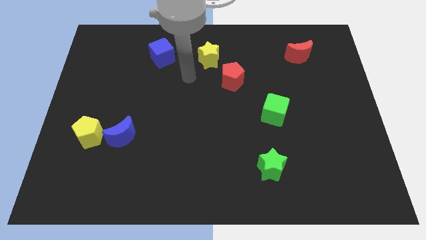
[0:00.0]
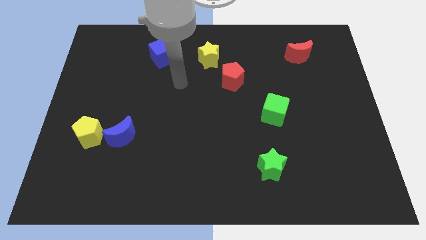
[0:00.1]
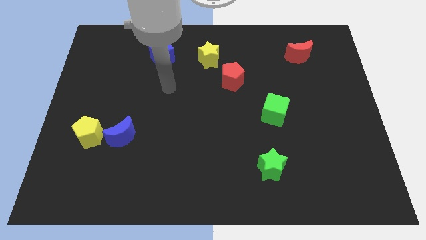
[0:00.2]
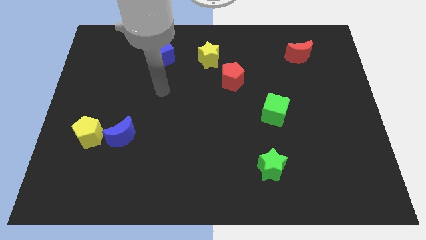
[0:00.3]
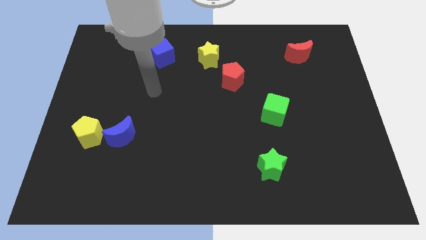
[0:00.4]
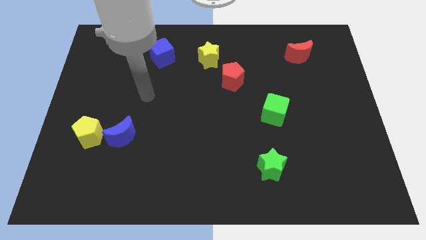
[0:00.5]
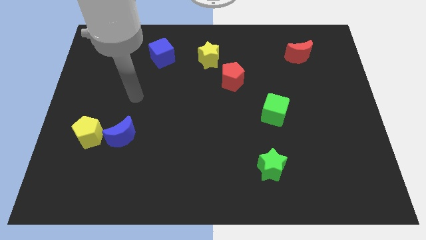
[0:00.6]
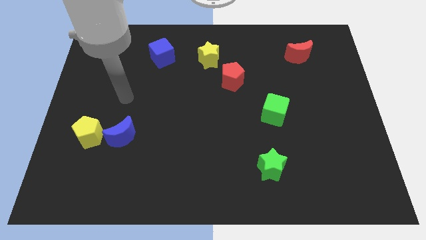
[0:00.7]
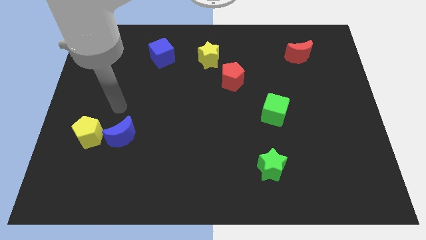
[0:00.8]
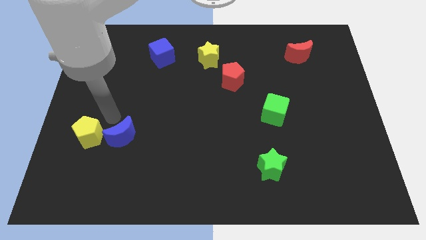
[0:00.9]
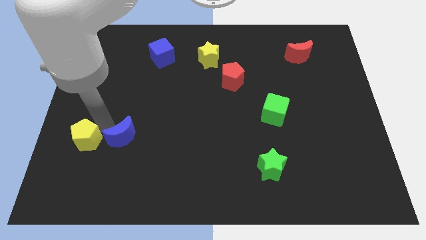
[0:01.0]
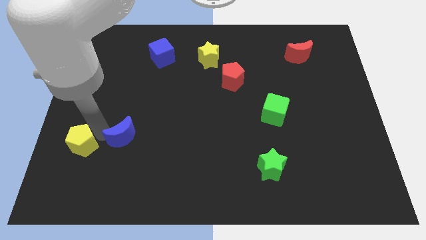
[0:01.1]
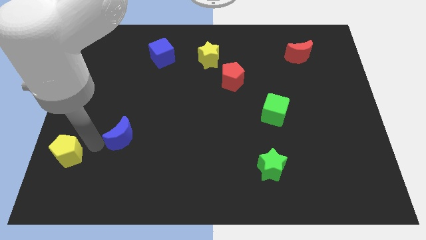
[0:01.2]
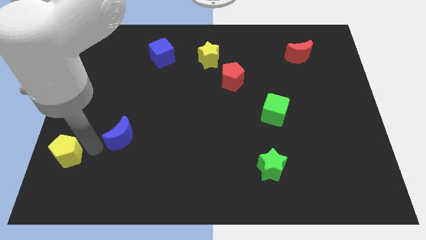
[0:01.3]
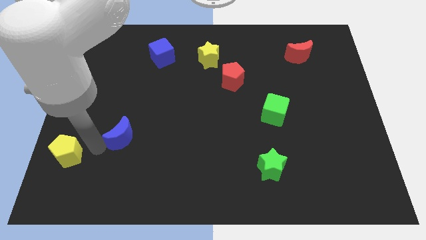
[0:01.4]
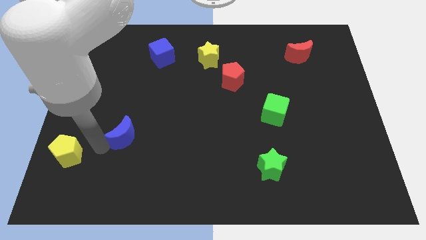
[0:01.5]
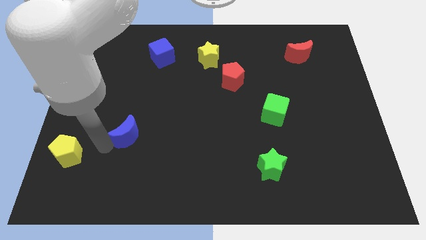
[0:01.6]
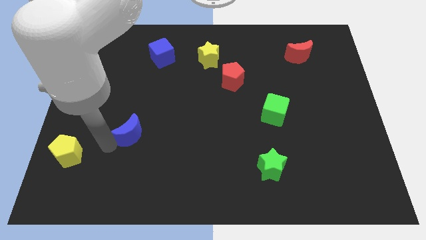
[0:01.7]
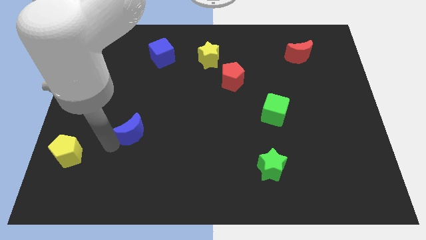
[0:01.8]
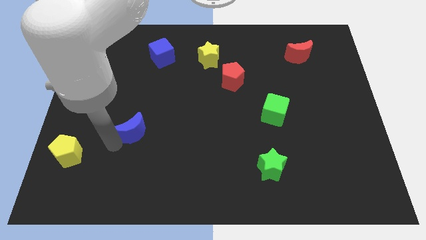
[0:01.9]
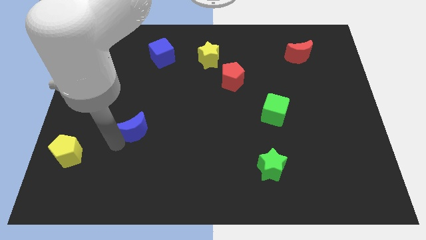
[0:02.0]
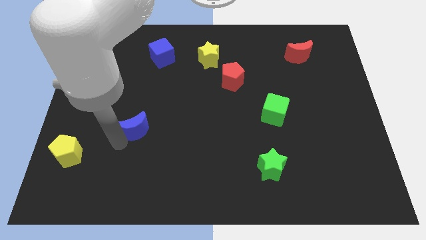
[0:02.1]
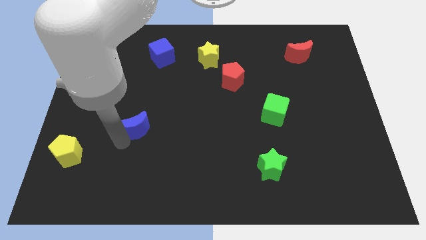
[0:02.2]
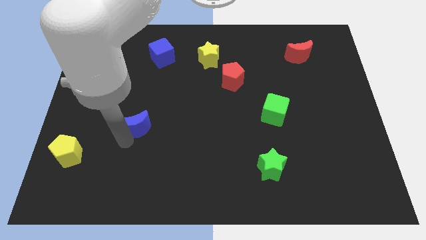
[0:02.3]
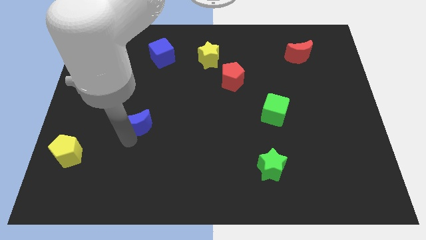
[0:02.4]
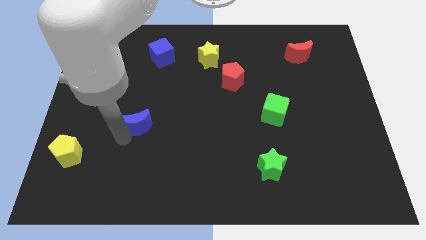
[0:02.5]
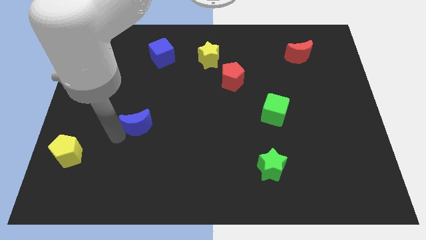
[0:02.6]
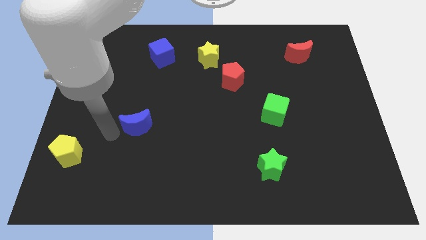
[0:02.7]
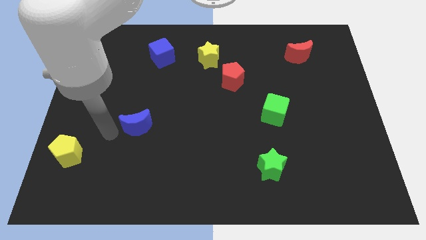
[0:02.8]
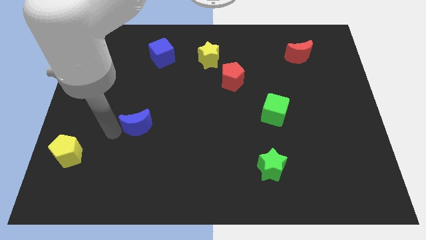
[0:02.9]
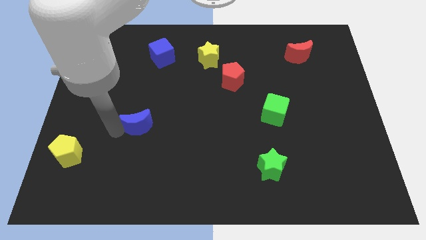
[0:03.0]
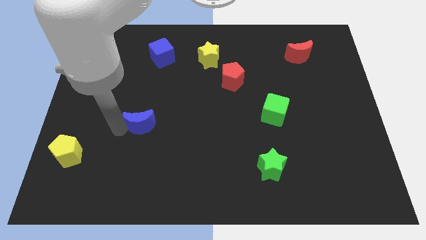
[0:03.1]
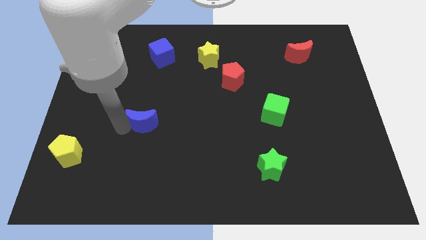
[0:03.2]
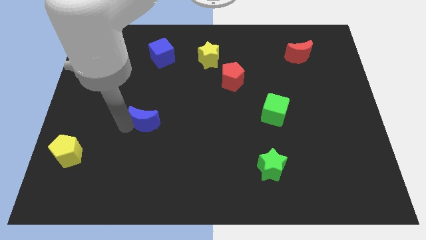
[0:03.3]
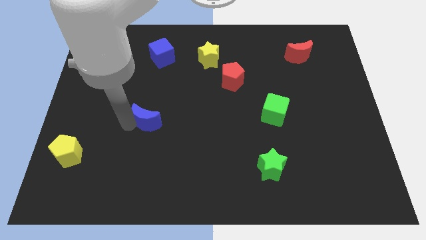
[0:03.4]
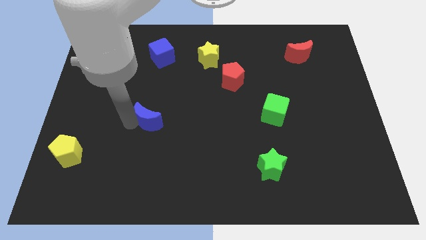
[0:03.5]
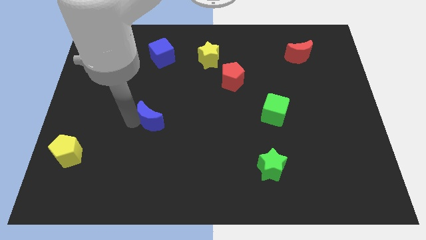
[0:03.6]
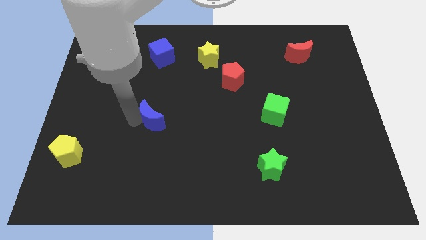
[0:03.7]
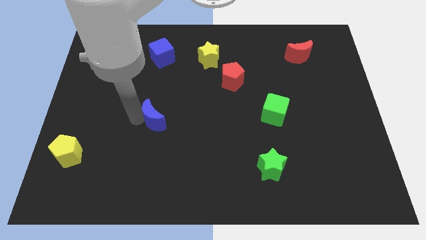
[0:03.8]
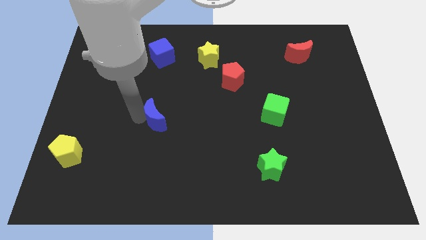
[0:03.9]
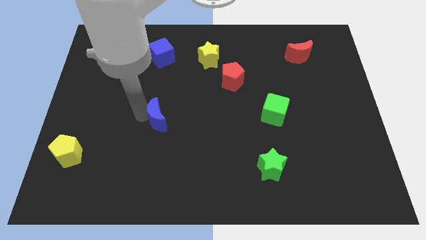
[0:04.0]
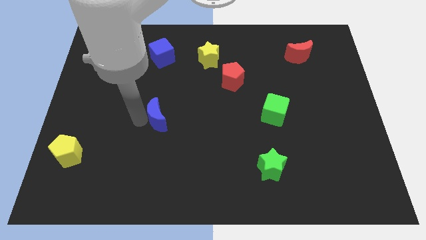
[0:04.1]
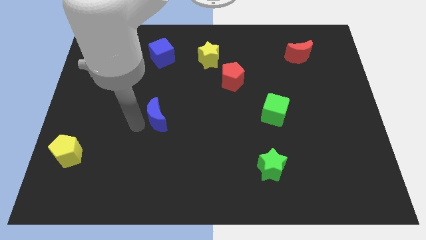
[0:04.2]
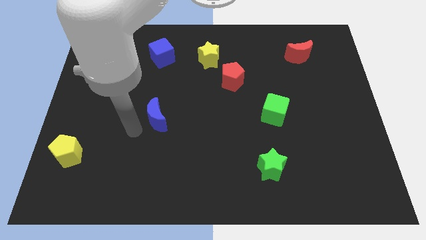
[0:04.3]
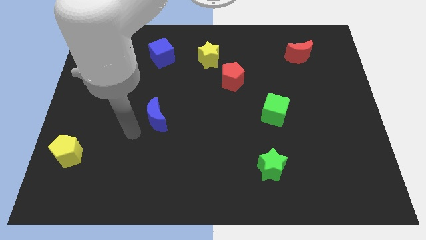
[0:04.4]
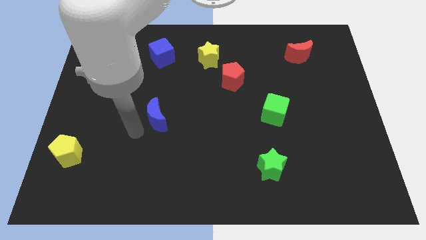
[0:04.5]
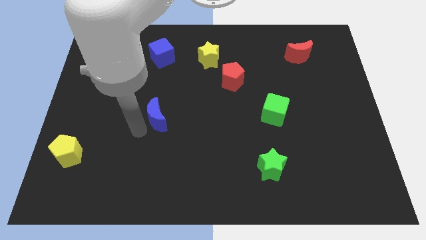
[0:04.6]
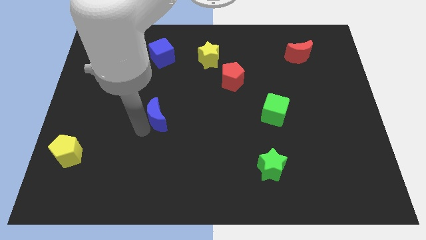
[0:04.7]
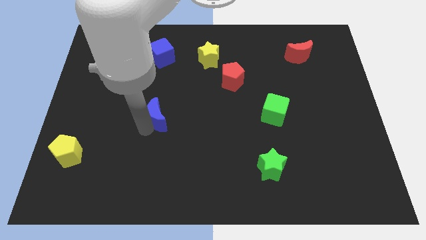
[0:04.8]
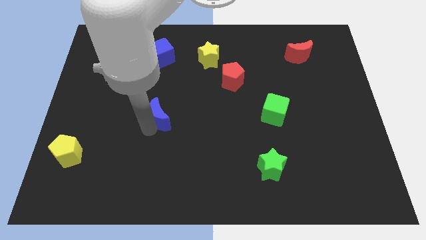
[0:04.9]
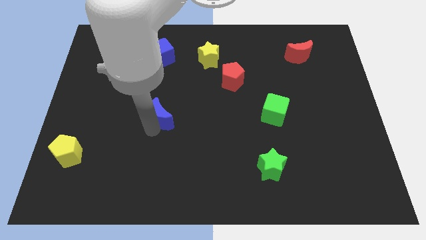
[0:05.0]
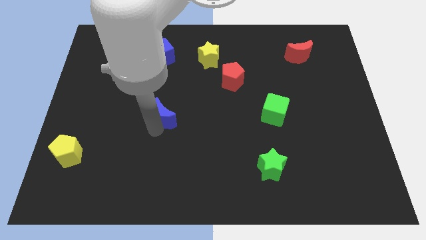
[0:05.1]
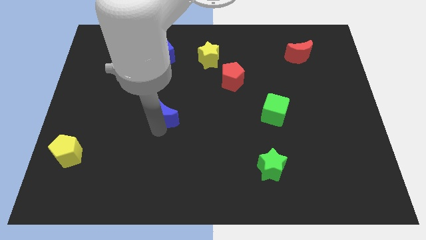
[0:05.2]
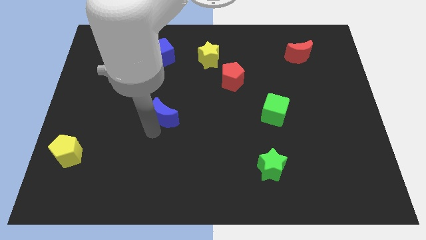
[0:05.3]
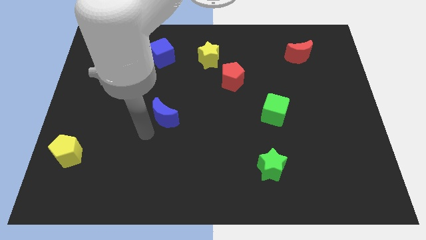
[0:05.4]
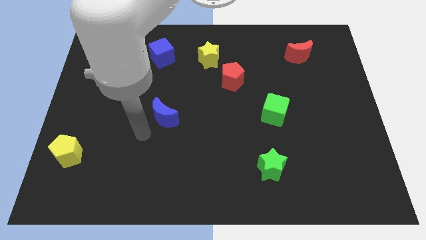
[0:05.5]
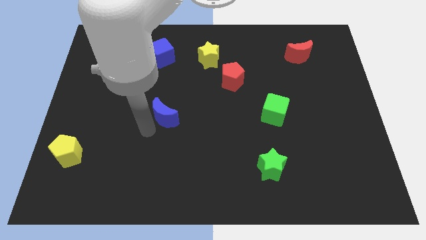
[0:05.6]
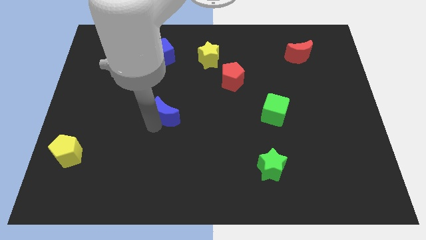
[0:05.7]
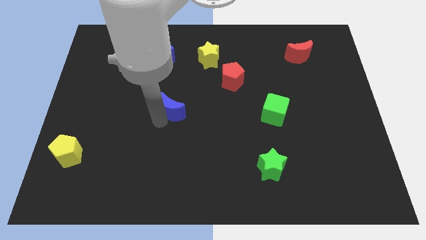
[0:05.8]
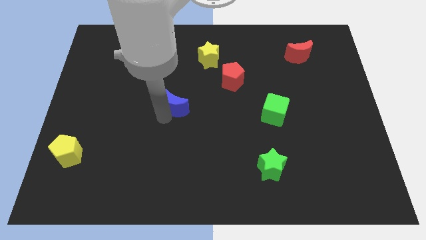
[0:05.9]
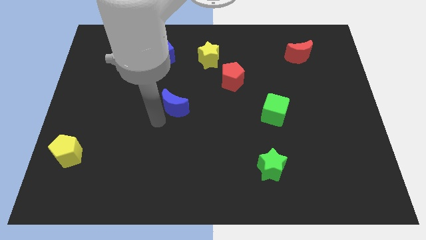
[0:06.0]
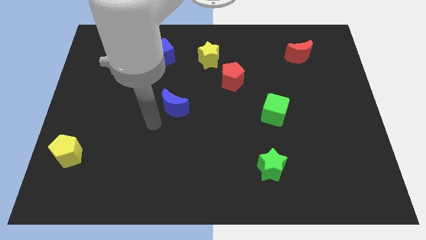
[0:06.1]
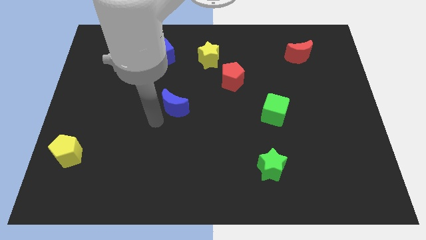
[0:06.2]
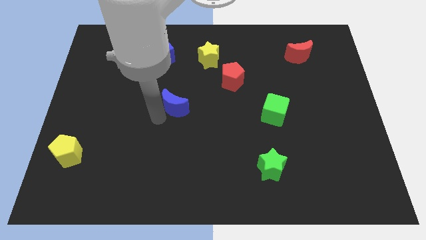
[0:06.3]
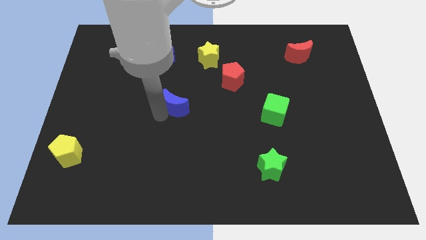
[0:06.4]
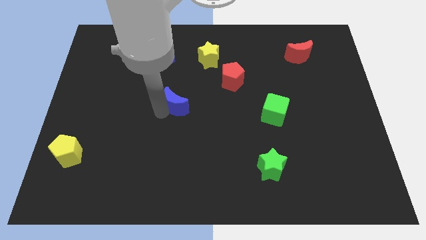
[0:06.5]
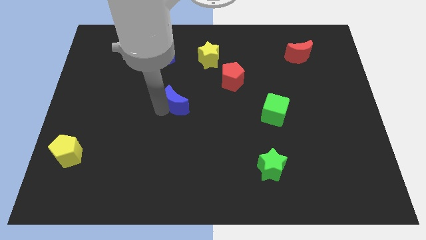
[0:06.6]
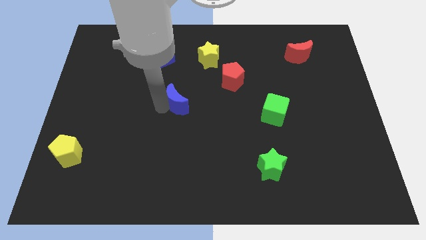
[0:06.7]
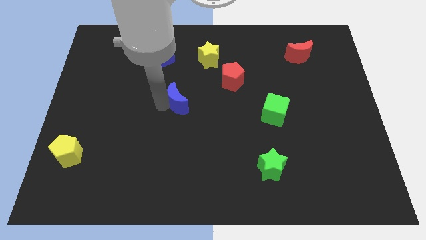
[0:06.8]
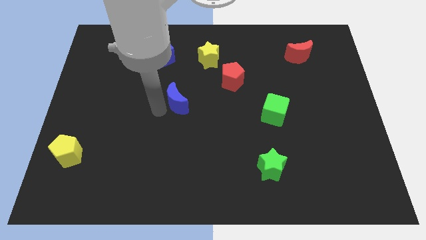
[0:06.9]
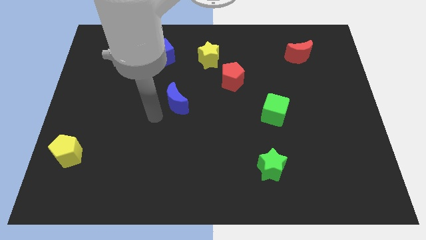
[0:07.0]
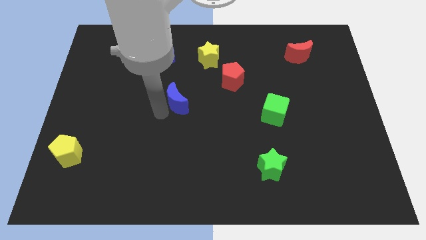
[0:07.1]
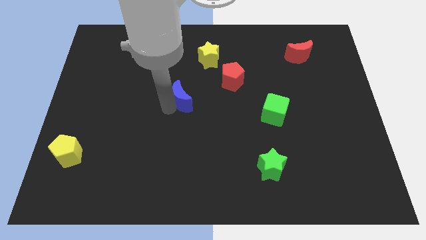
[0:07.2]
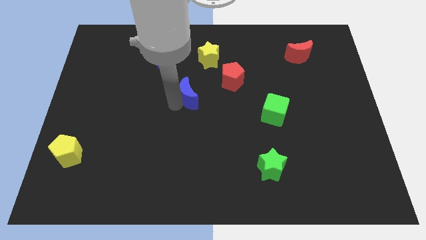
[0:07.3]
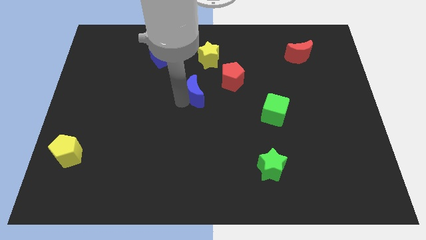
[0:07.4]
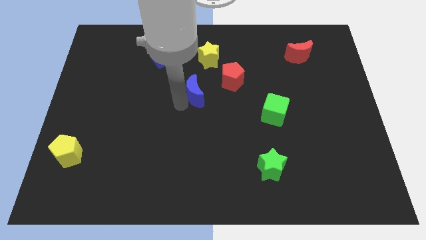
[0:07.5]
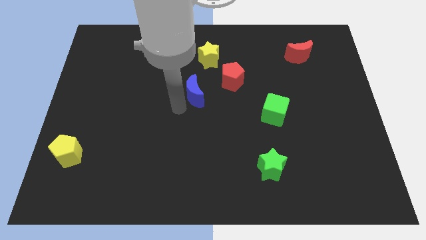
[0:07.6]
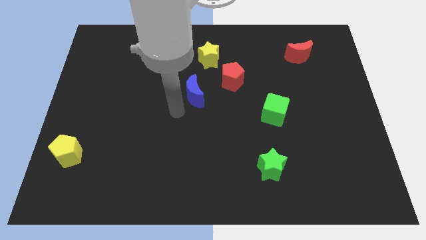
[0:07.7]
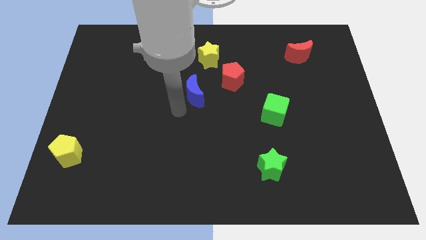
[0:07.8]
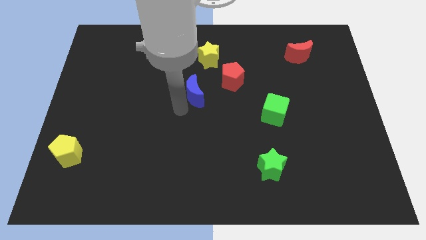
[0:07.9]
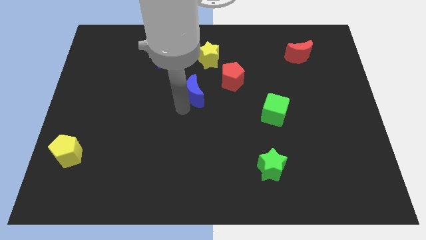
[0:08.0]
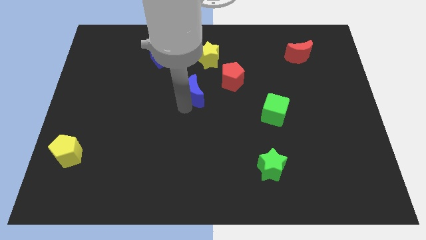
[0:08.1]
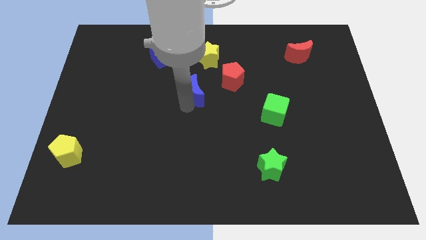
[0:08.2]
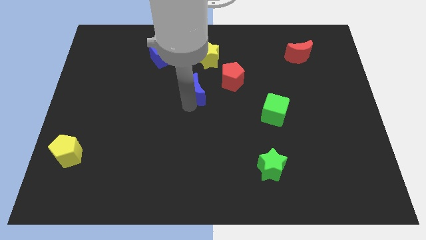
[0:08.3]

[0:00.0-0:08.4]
move the blue moon upwards and to the right

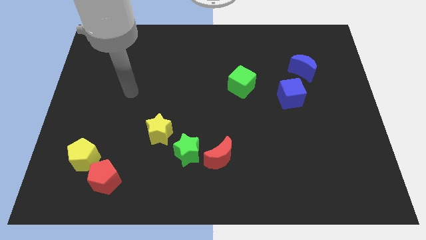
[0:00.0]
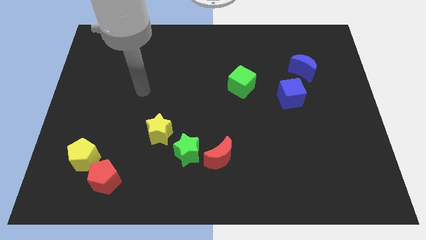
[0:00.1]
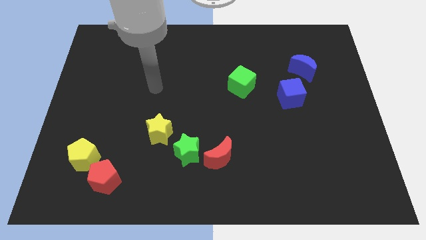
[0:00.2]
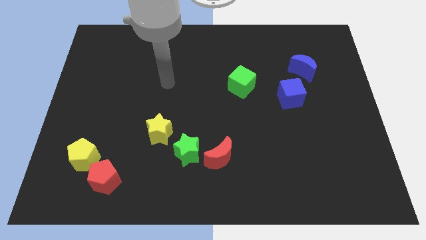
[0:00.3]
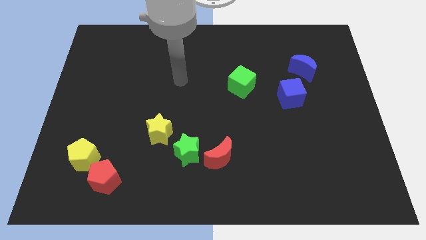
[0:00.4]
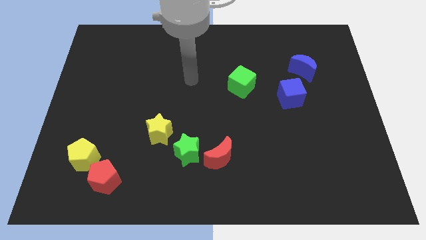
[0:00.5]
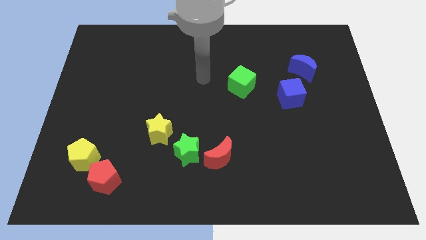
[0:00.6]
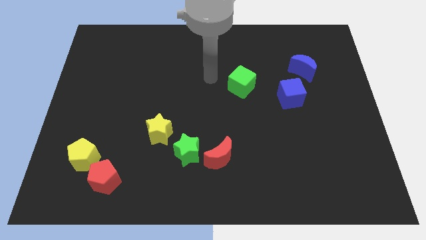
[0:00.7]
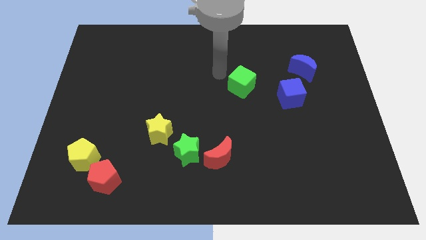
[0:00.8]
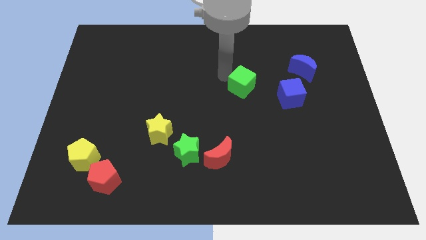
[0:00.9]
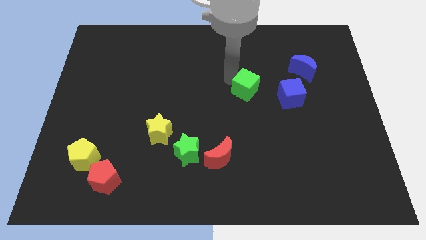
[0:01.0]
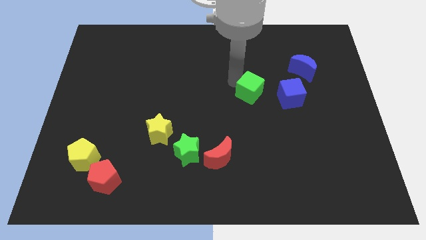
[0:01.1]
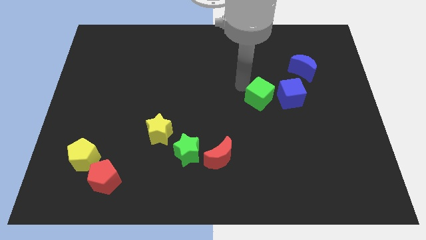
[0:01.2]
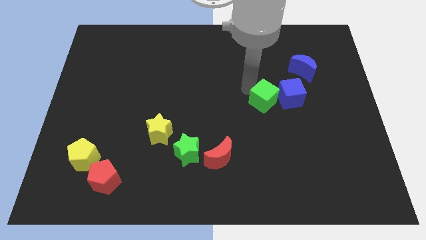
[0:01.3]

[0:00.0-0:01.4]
slightly slide the green cube down and to the right
